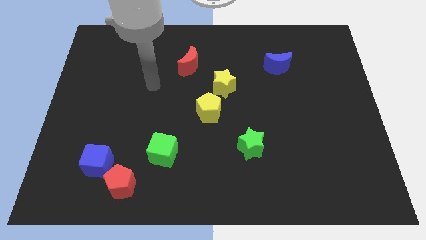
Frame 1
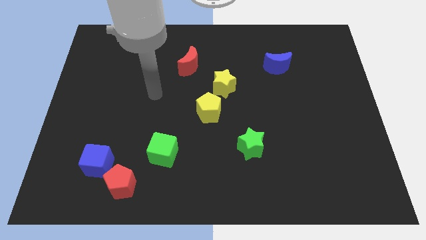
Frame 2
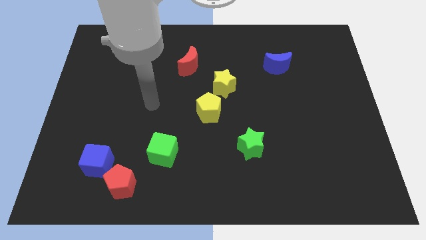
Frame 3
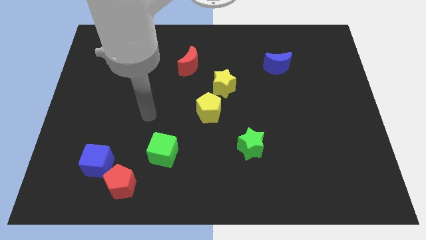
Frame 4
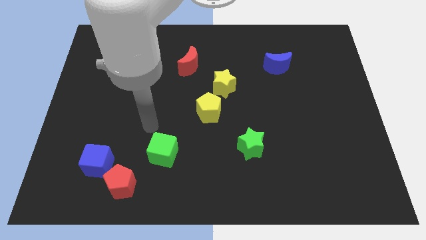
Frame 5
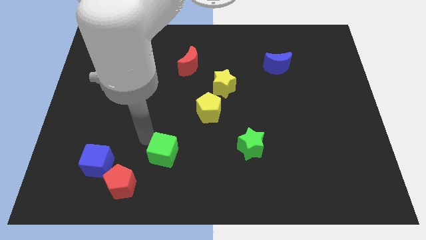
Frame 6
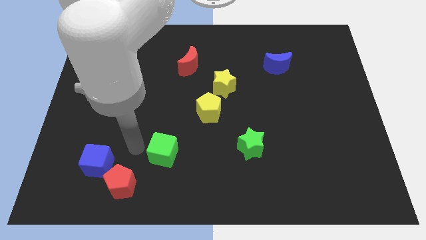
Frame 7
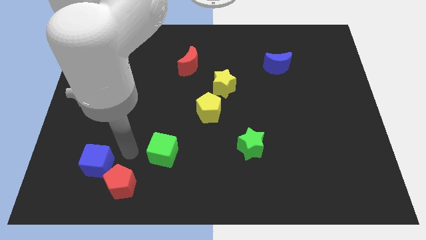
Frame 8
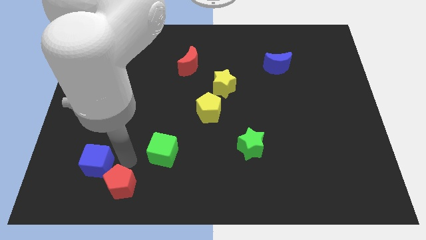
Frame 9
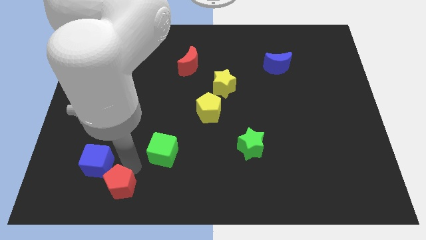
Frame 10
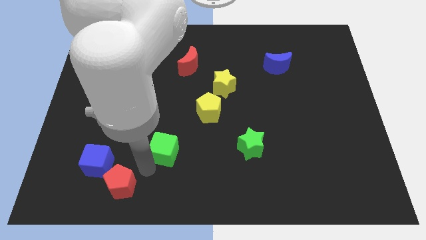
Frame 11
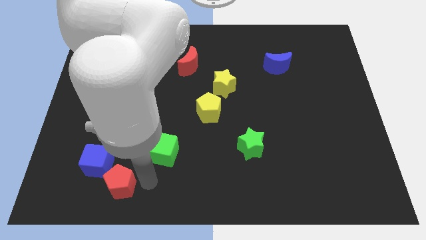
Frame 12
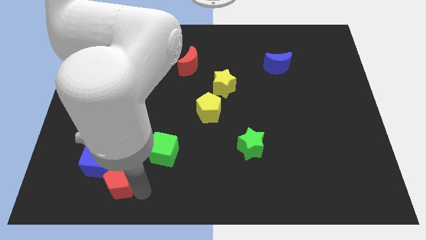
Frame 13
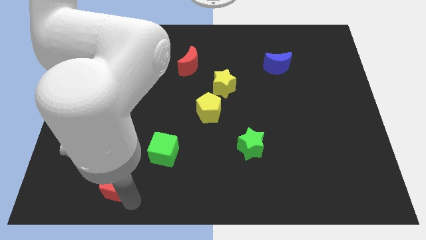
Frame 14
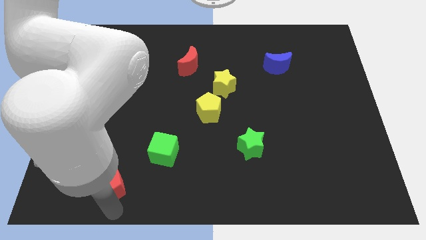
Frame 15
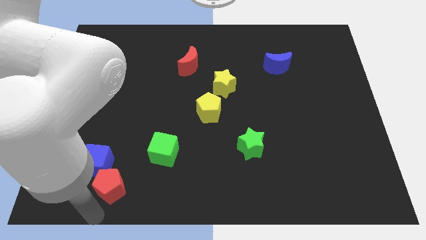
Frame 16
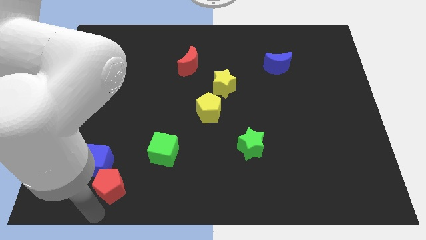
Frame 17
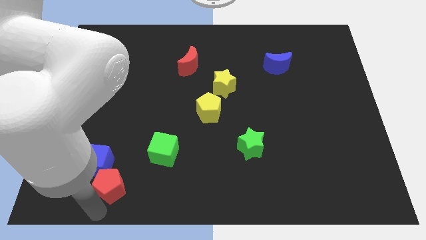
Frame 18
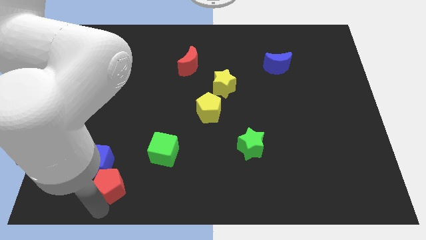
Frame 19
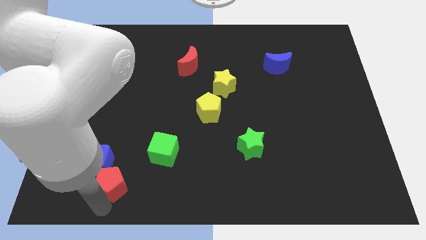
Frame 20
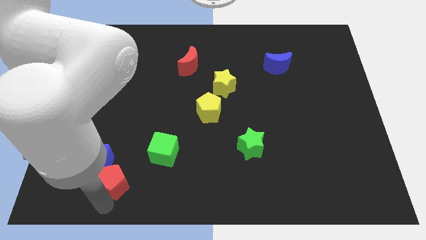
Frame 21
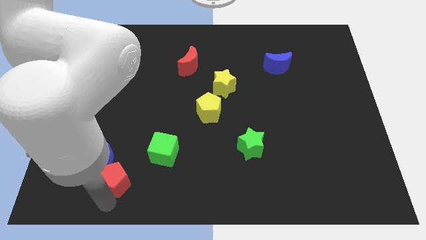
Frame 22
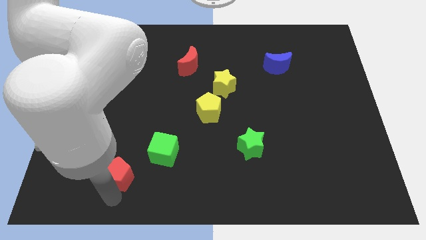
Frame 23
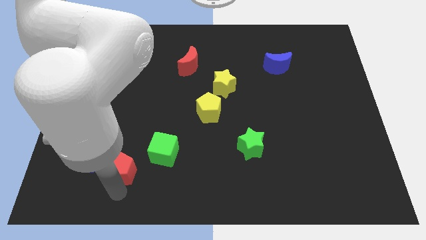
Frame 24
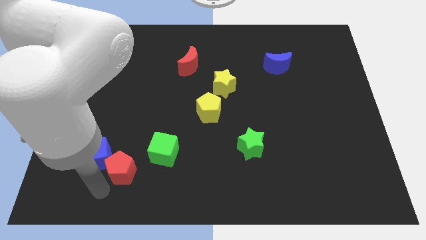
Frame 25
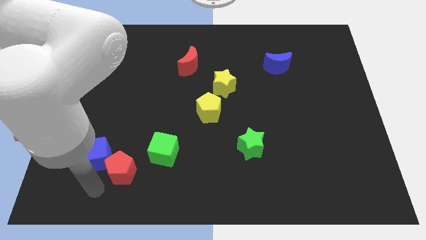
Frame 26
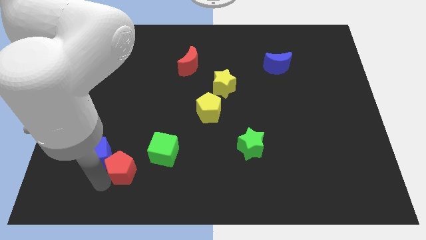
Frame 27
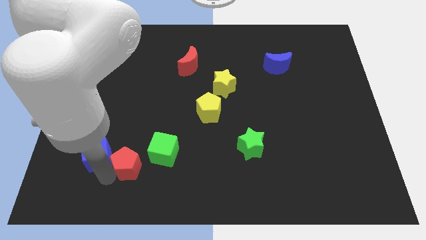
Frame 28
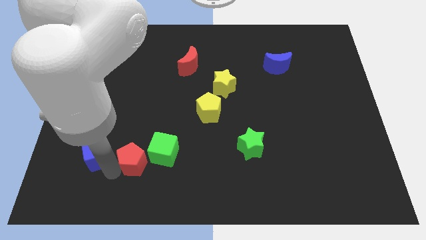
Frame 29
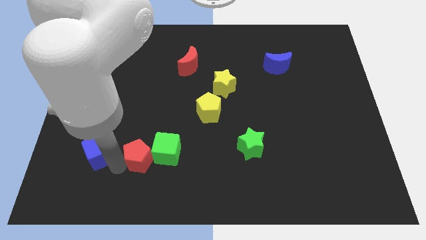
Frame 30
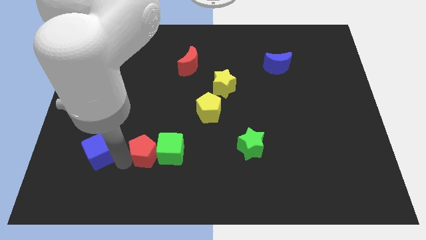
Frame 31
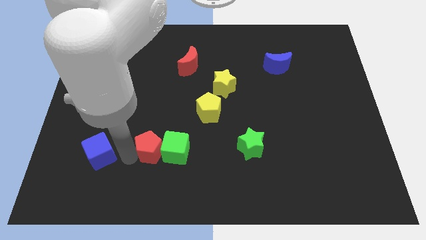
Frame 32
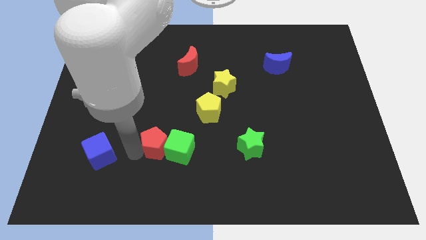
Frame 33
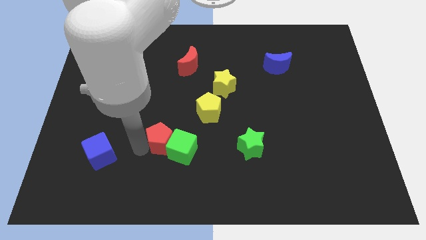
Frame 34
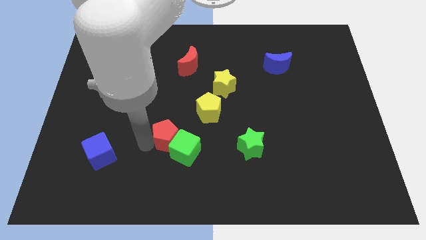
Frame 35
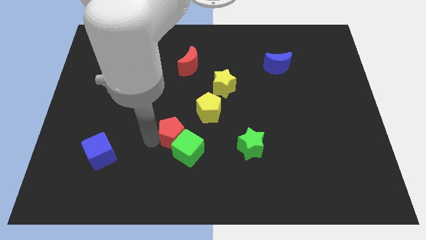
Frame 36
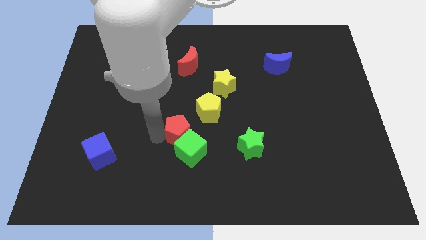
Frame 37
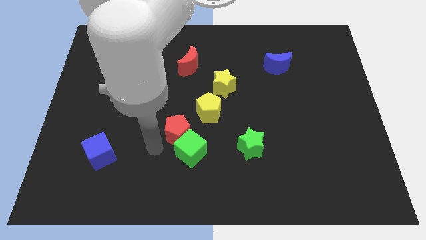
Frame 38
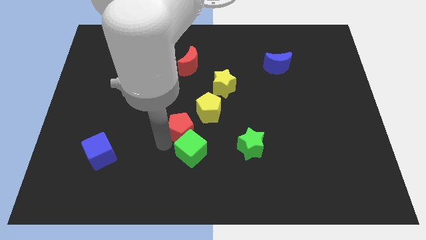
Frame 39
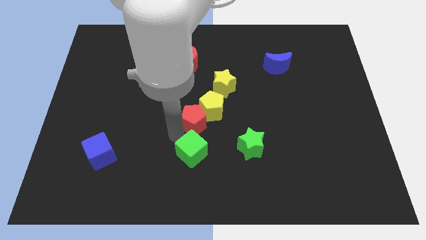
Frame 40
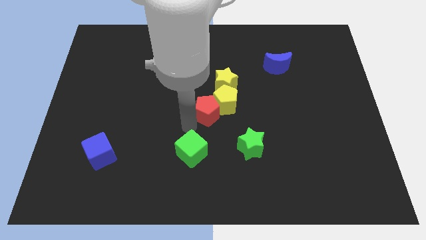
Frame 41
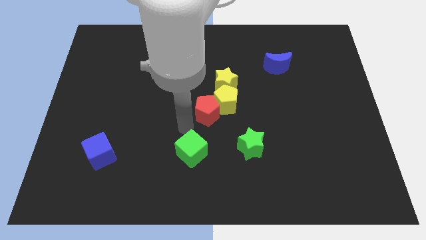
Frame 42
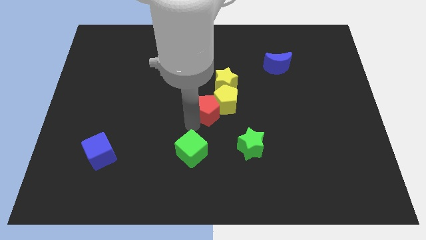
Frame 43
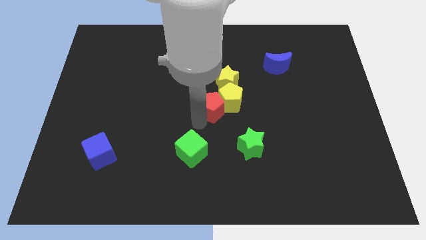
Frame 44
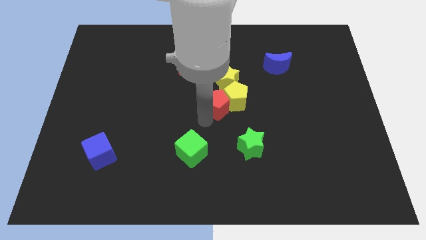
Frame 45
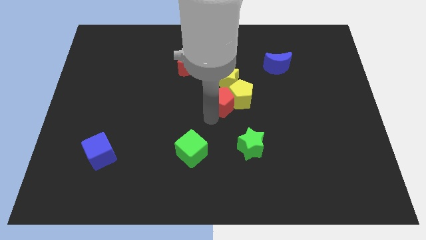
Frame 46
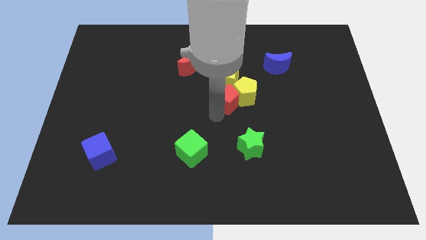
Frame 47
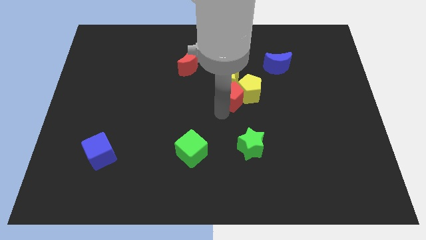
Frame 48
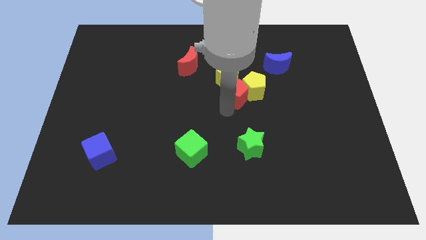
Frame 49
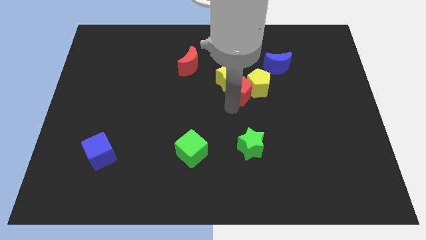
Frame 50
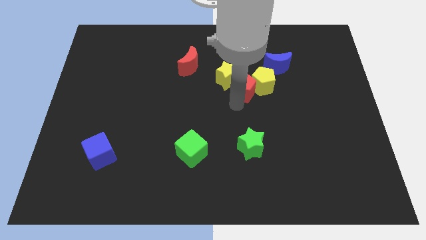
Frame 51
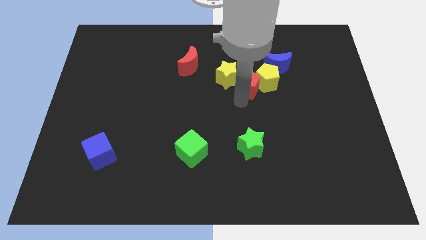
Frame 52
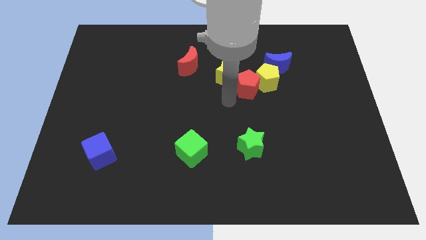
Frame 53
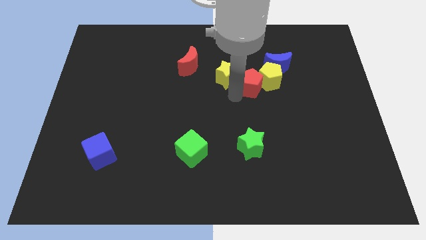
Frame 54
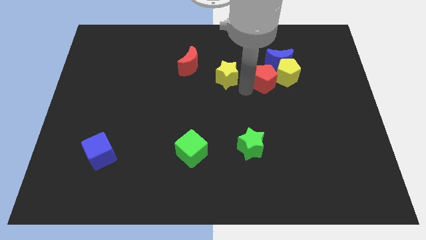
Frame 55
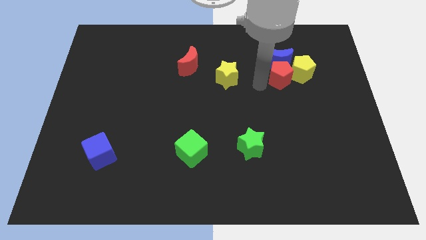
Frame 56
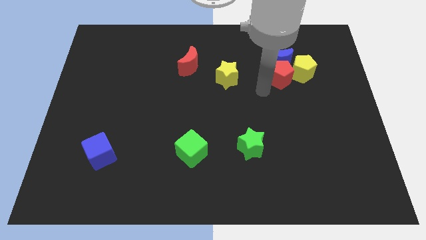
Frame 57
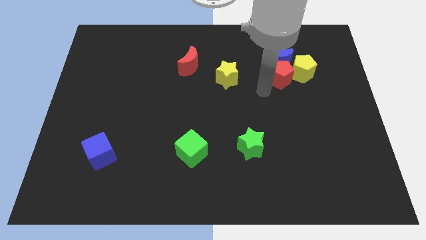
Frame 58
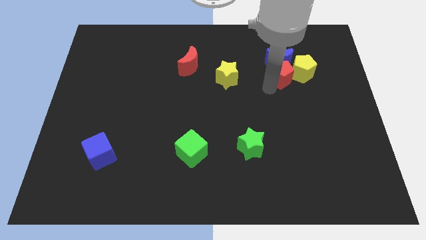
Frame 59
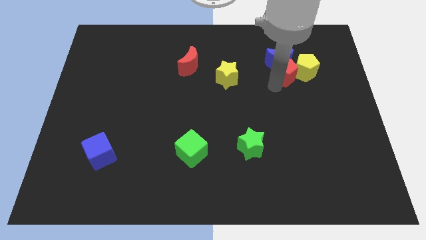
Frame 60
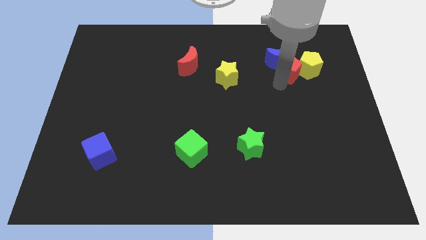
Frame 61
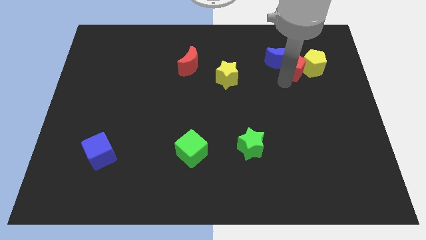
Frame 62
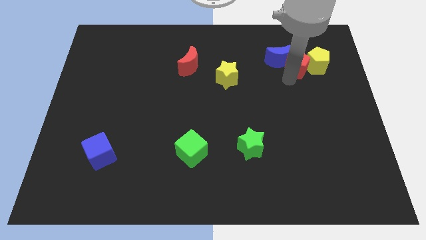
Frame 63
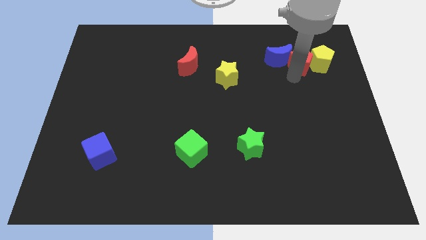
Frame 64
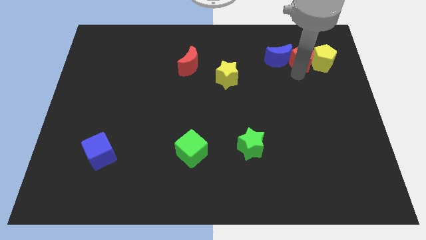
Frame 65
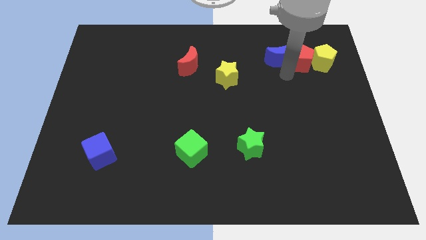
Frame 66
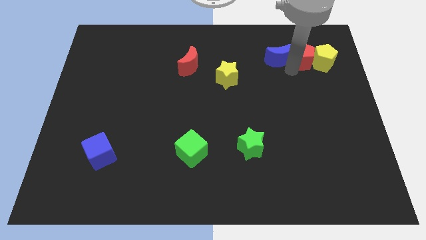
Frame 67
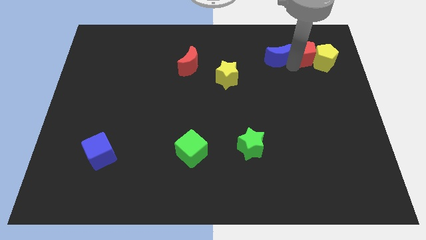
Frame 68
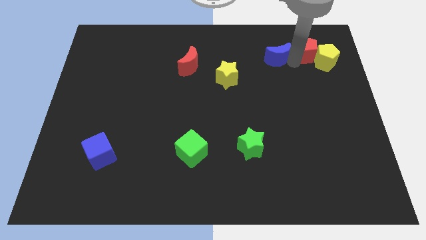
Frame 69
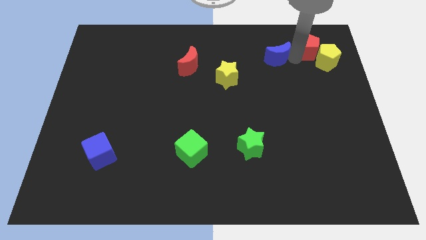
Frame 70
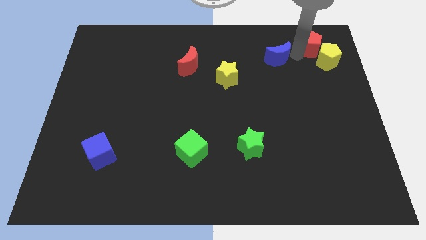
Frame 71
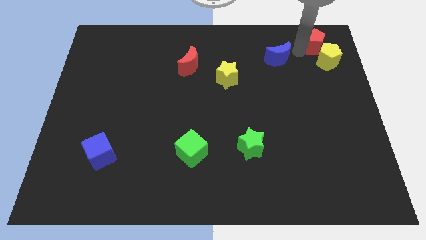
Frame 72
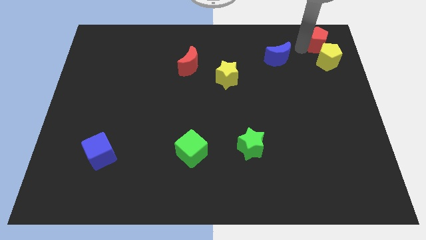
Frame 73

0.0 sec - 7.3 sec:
push the red pentagon to the top right
